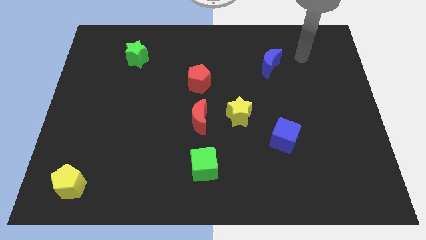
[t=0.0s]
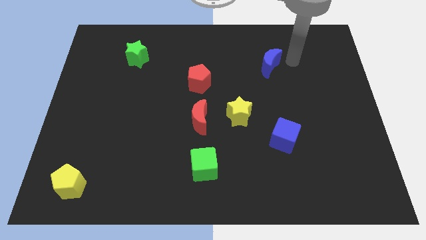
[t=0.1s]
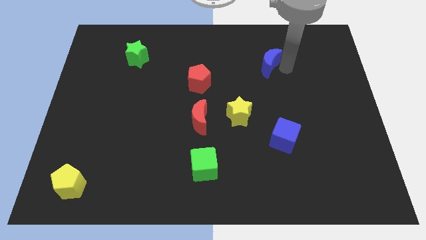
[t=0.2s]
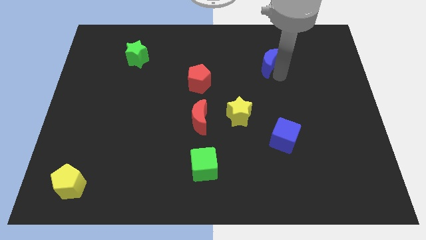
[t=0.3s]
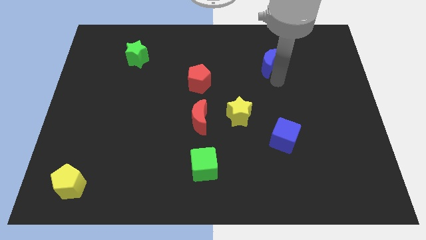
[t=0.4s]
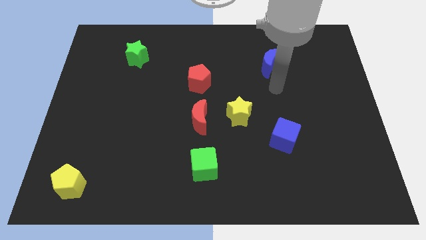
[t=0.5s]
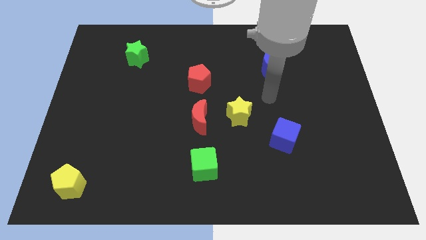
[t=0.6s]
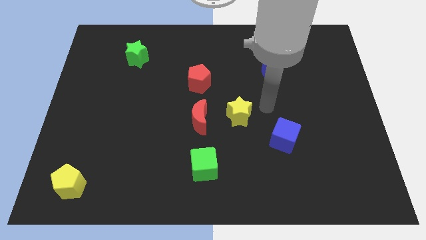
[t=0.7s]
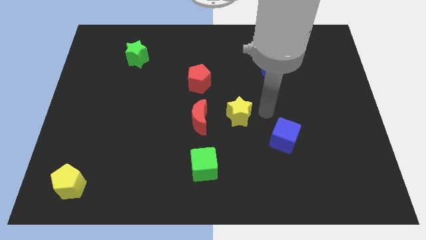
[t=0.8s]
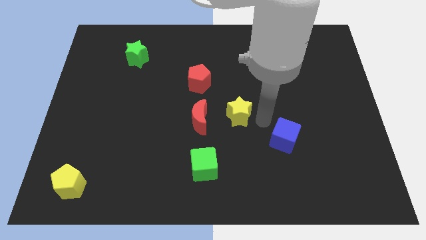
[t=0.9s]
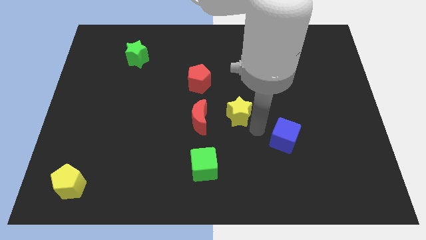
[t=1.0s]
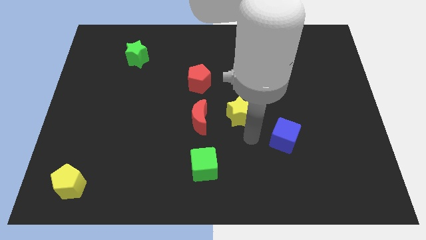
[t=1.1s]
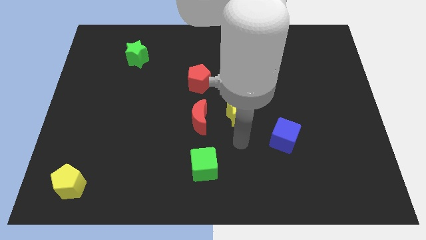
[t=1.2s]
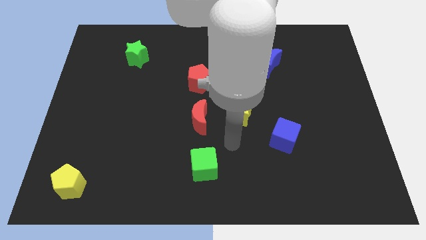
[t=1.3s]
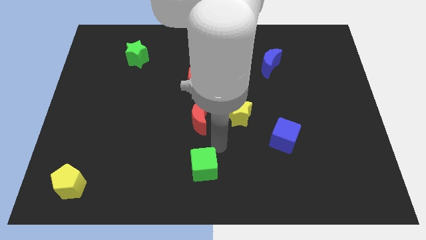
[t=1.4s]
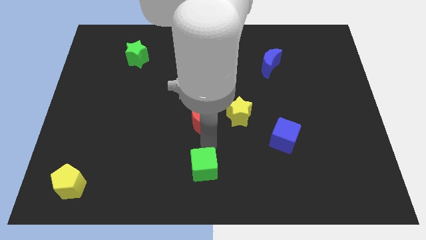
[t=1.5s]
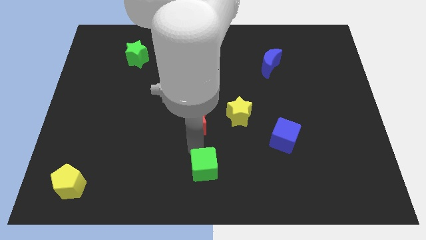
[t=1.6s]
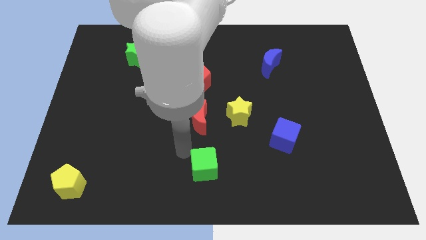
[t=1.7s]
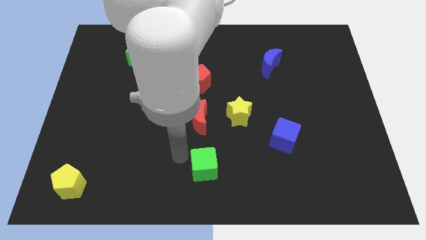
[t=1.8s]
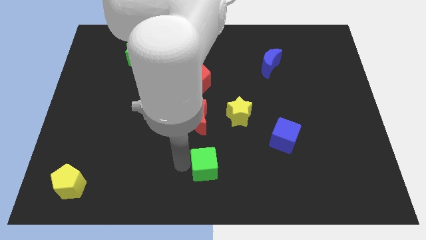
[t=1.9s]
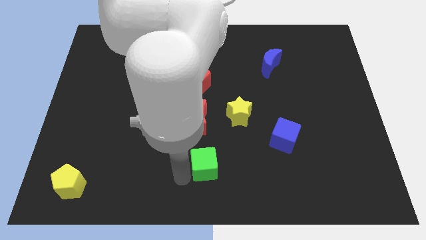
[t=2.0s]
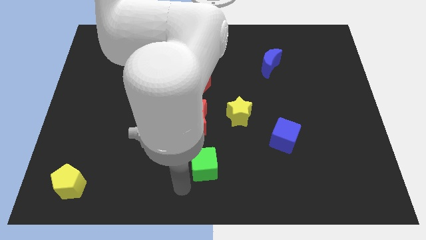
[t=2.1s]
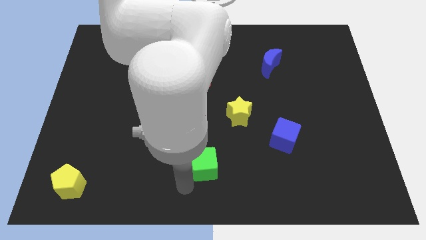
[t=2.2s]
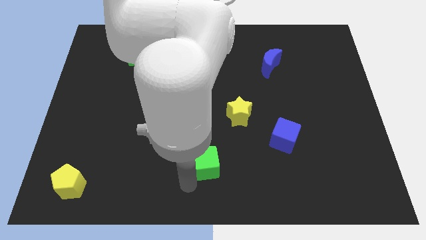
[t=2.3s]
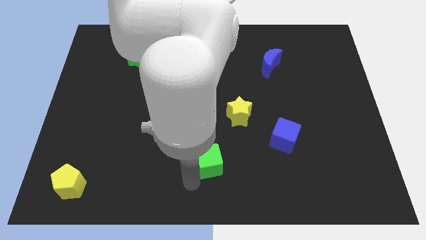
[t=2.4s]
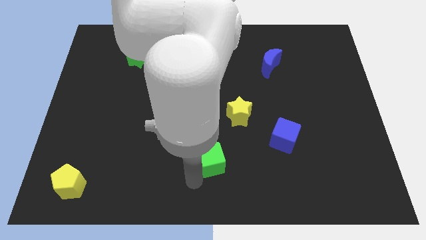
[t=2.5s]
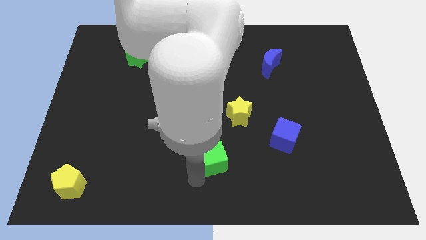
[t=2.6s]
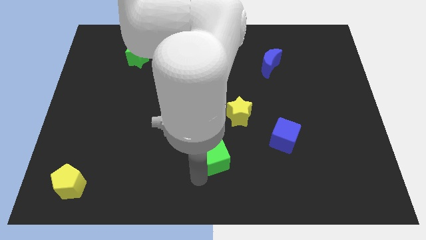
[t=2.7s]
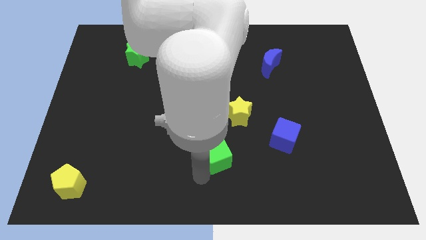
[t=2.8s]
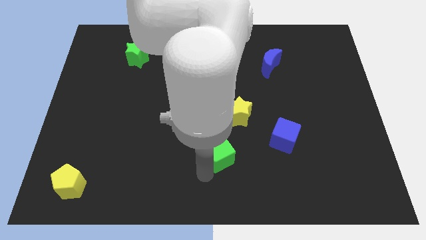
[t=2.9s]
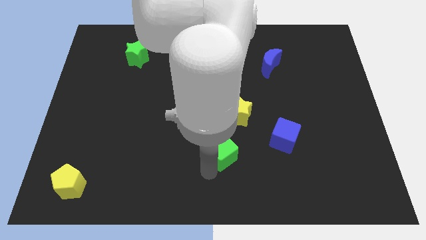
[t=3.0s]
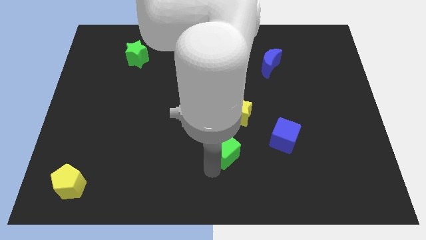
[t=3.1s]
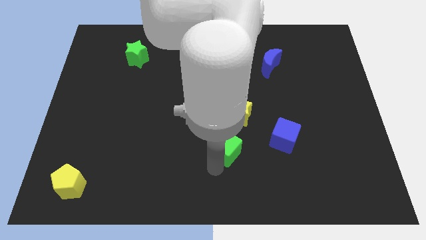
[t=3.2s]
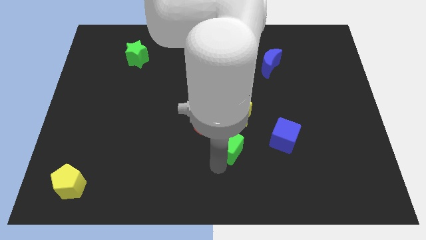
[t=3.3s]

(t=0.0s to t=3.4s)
move the green cube diagonally up and to the right a bit

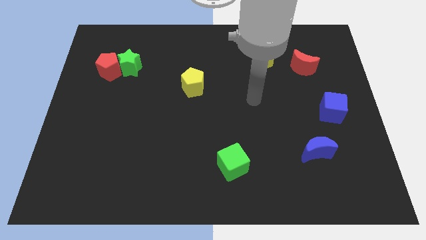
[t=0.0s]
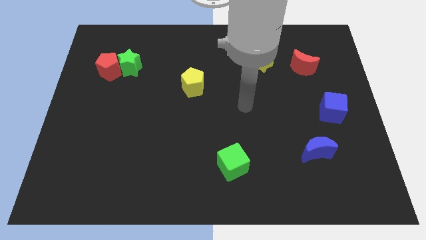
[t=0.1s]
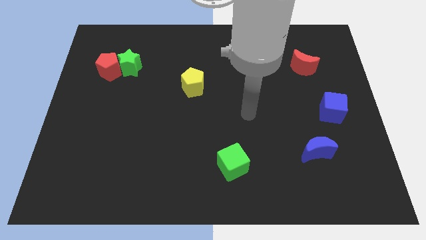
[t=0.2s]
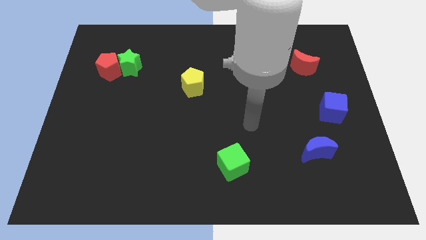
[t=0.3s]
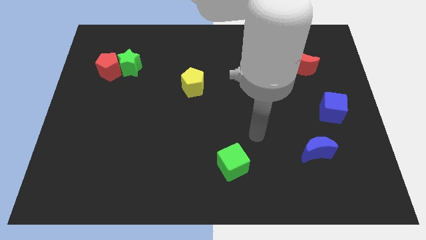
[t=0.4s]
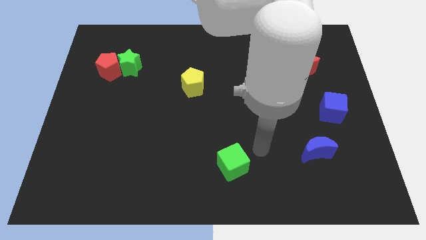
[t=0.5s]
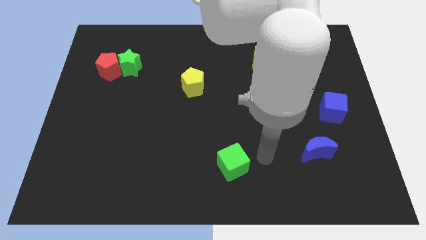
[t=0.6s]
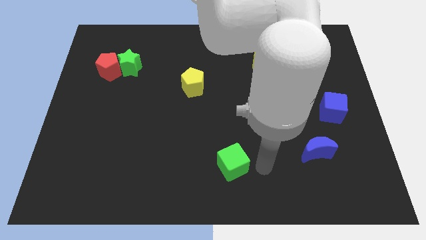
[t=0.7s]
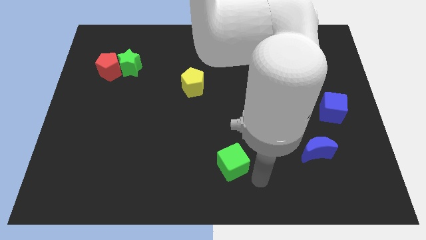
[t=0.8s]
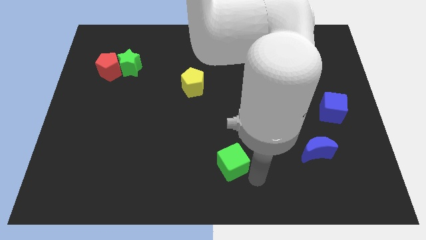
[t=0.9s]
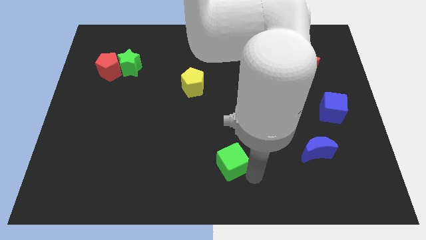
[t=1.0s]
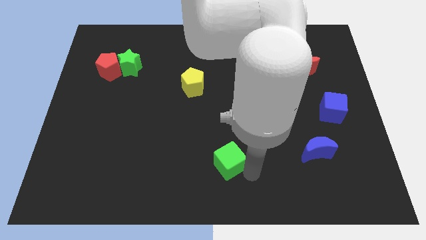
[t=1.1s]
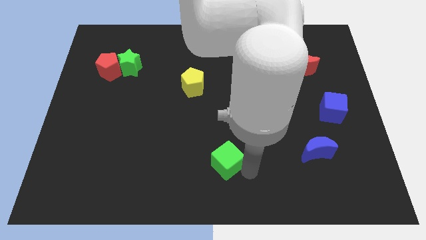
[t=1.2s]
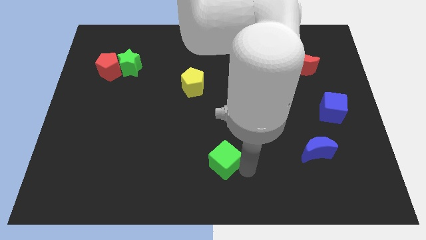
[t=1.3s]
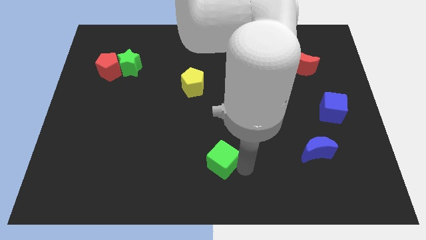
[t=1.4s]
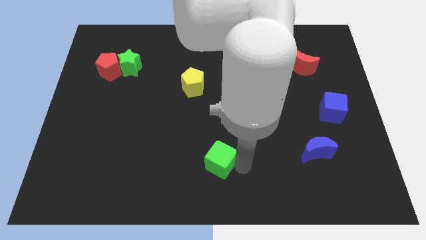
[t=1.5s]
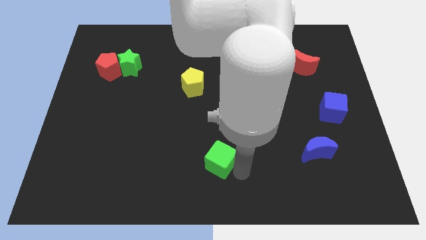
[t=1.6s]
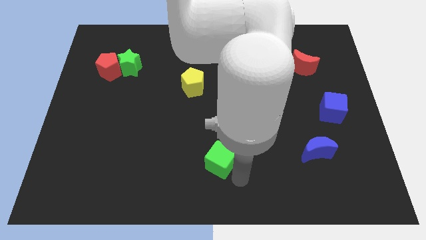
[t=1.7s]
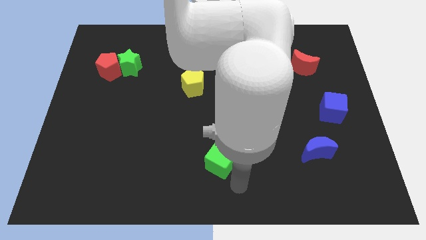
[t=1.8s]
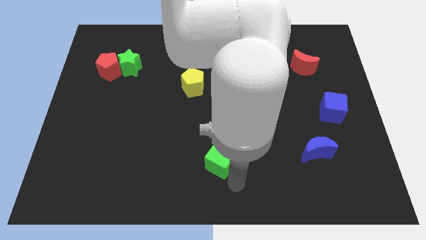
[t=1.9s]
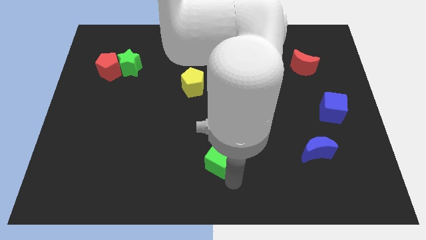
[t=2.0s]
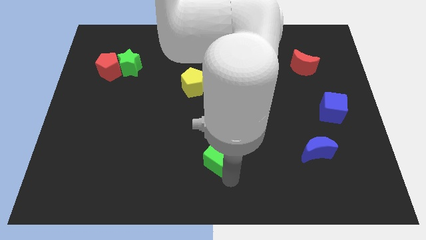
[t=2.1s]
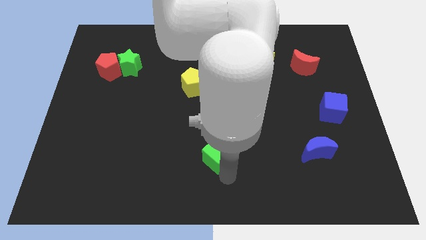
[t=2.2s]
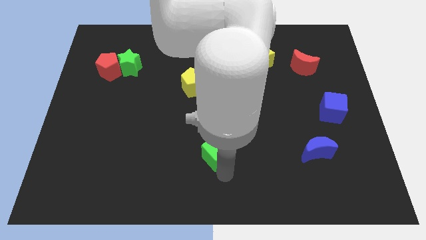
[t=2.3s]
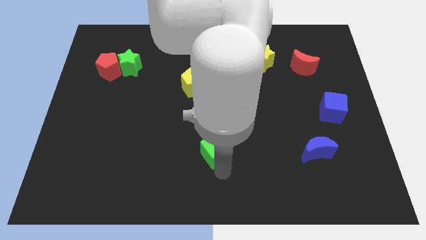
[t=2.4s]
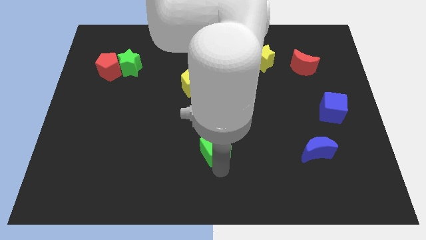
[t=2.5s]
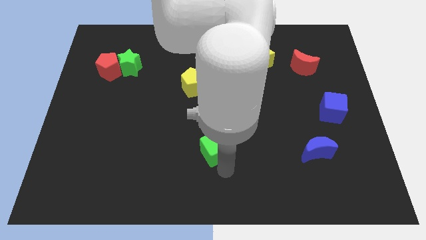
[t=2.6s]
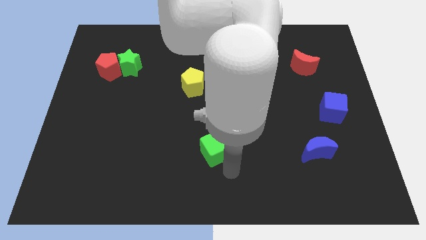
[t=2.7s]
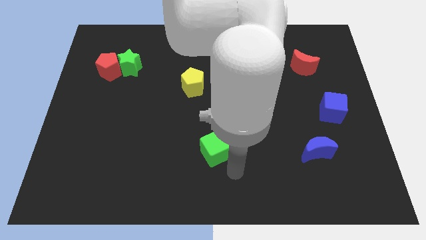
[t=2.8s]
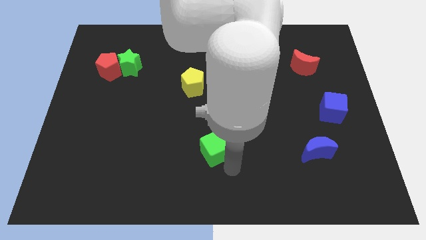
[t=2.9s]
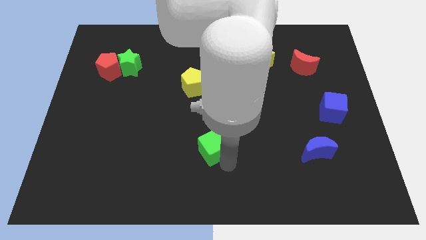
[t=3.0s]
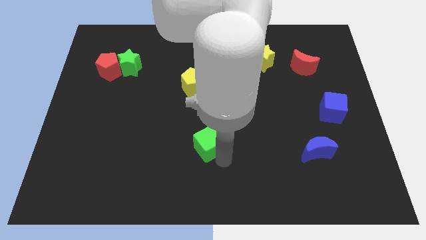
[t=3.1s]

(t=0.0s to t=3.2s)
slightly move the green cube up and then left

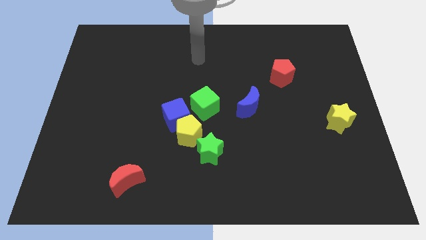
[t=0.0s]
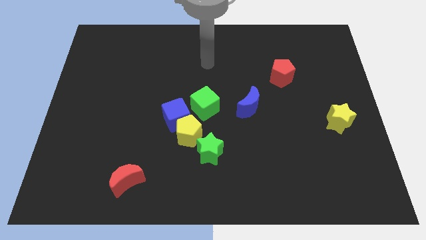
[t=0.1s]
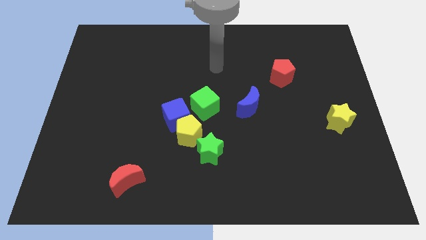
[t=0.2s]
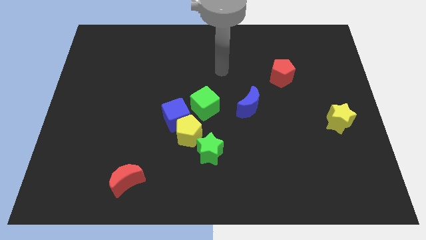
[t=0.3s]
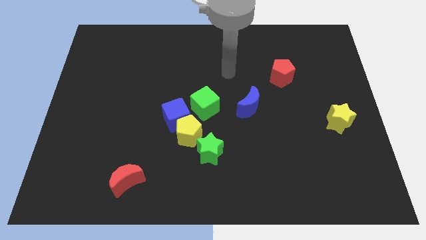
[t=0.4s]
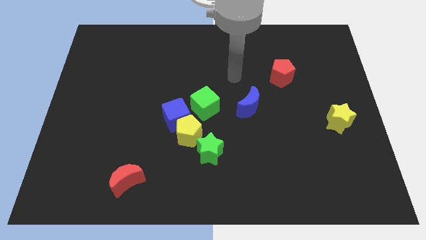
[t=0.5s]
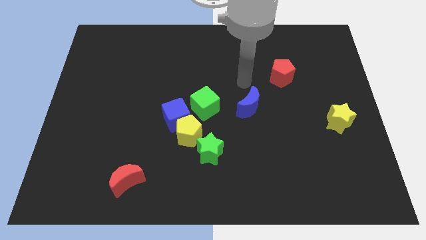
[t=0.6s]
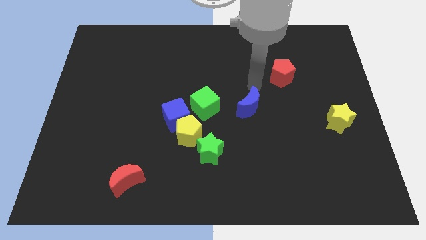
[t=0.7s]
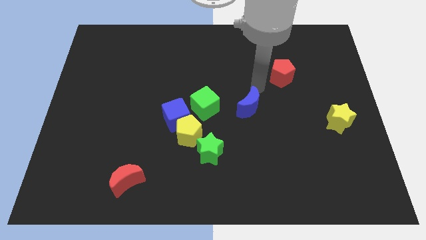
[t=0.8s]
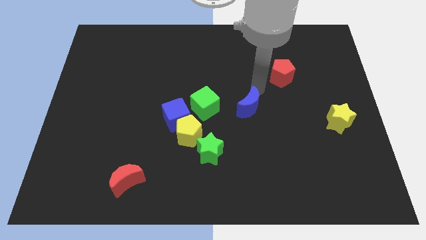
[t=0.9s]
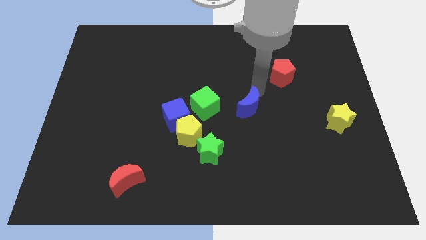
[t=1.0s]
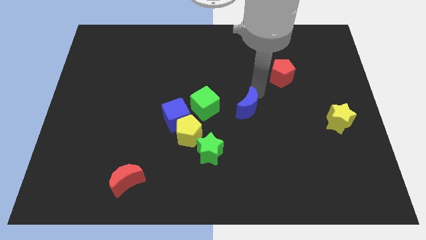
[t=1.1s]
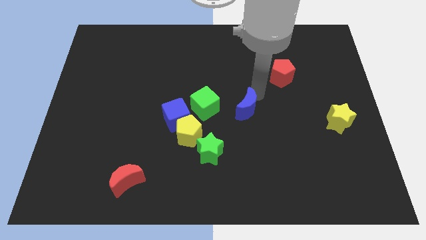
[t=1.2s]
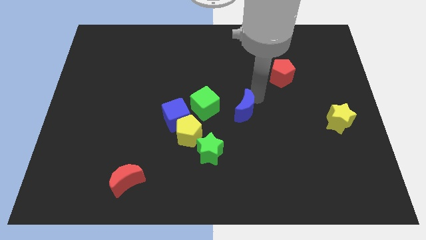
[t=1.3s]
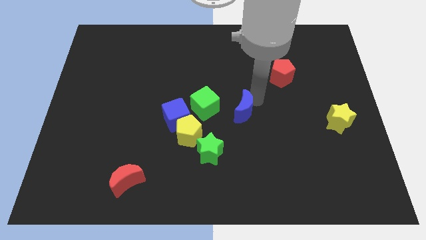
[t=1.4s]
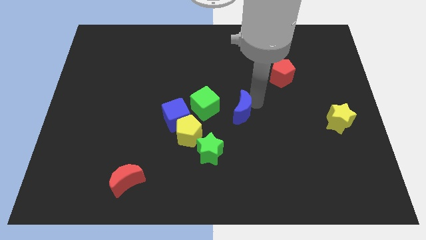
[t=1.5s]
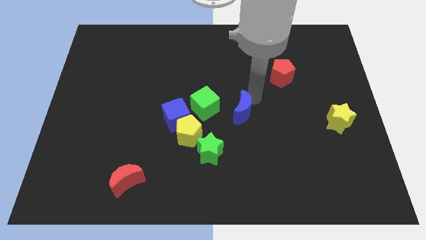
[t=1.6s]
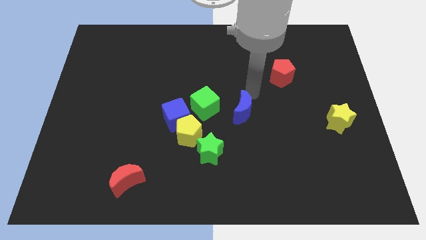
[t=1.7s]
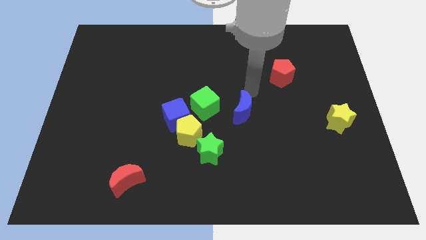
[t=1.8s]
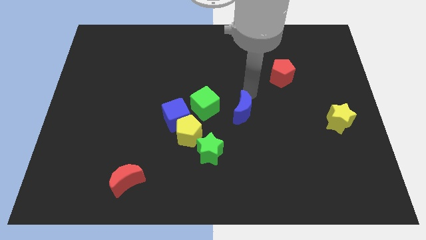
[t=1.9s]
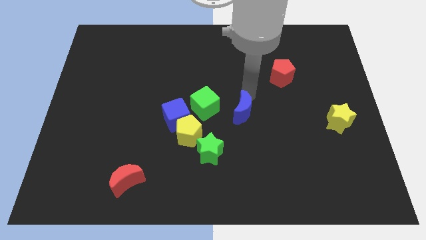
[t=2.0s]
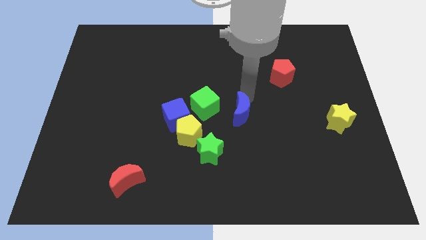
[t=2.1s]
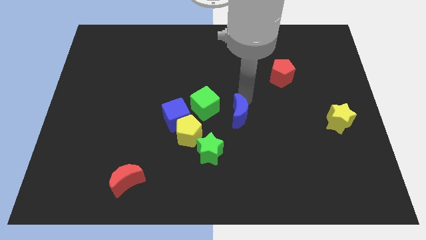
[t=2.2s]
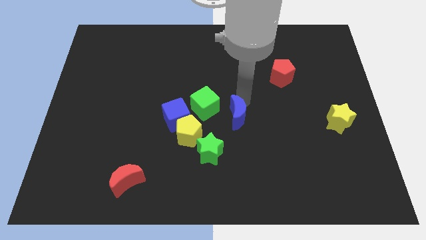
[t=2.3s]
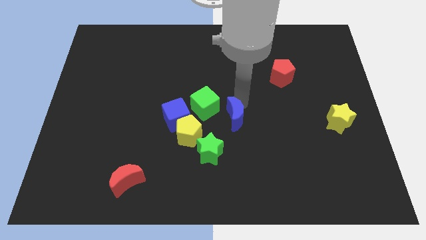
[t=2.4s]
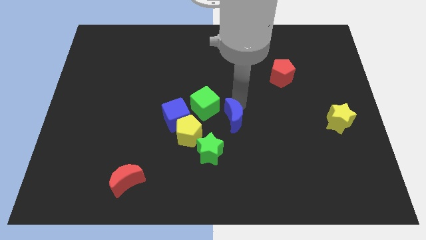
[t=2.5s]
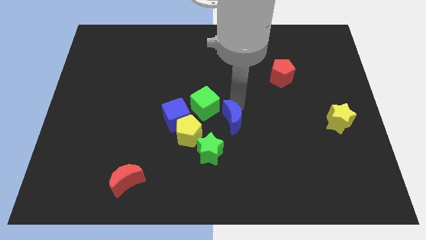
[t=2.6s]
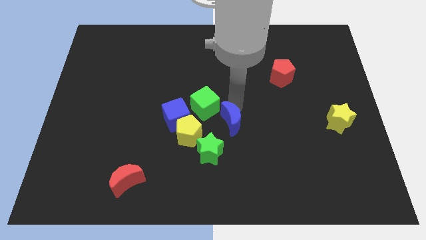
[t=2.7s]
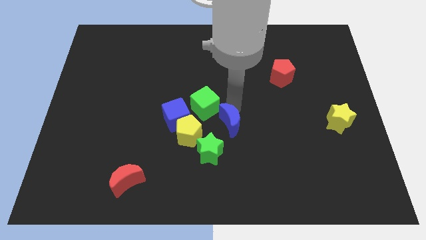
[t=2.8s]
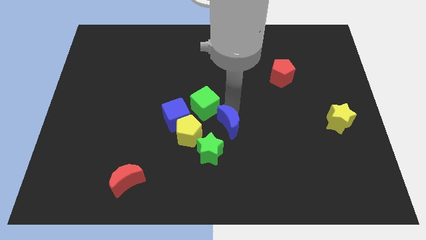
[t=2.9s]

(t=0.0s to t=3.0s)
move the blue moon downwards and left diagonally slightly
